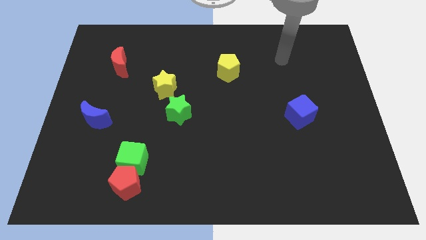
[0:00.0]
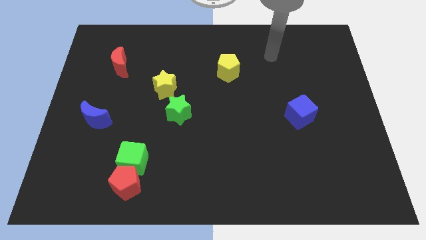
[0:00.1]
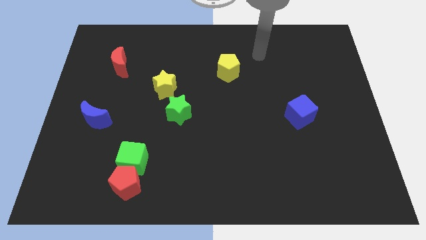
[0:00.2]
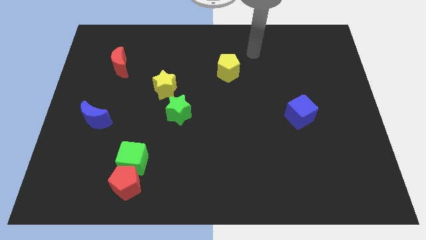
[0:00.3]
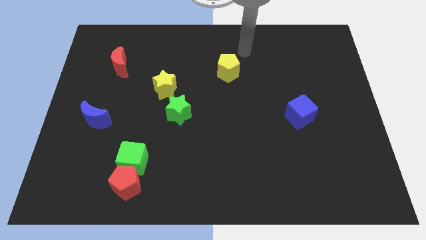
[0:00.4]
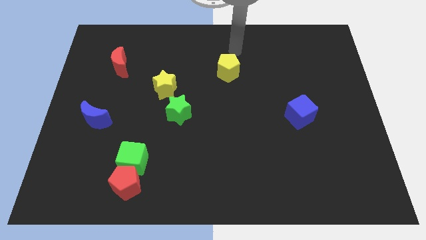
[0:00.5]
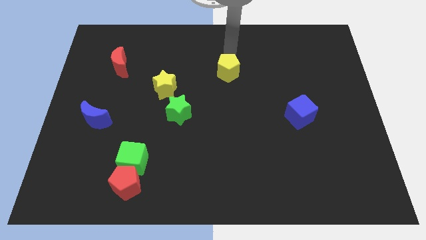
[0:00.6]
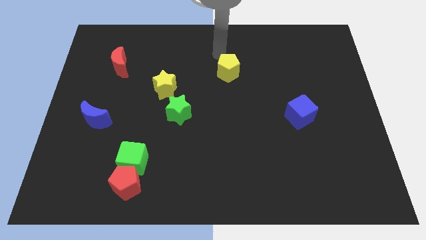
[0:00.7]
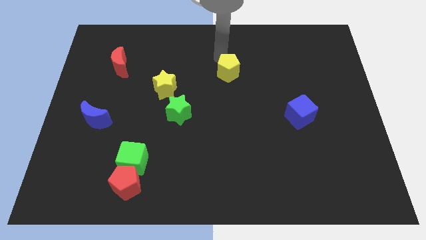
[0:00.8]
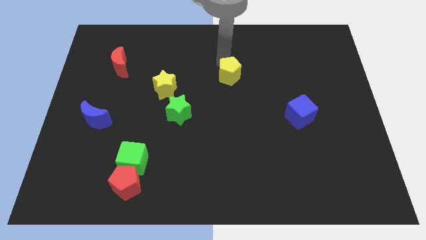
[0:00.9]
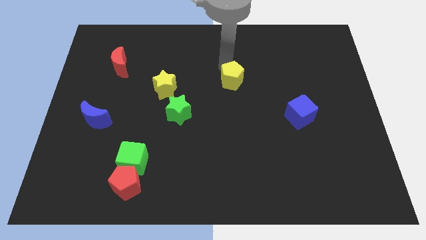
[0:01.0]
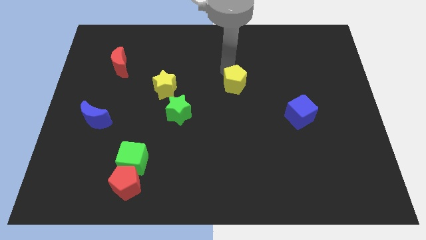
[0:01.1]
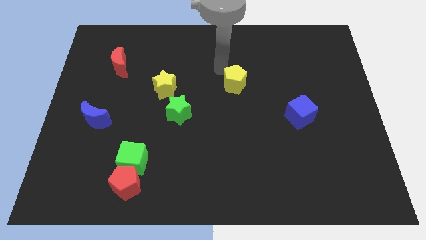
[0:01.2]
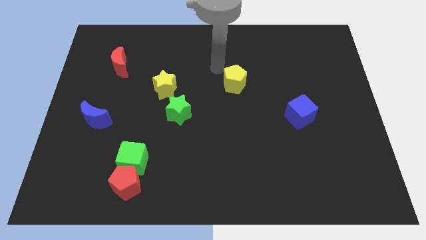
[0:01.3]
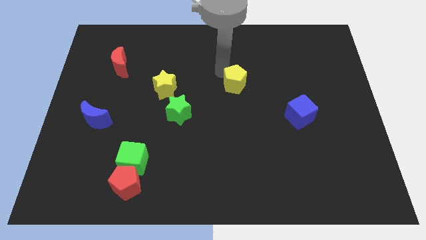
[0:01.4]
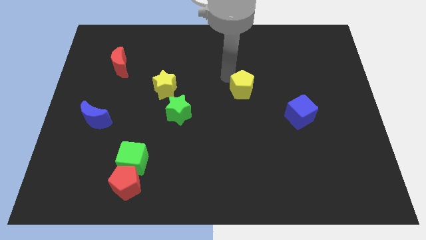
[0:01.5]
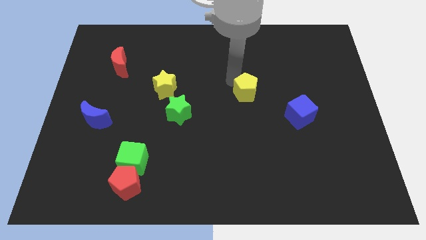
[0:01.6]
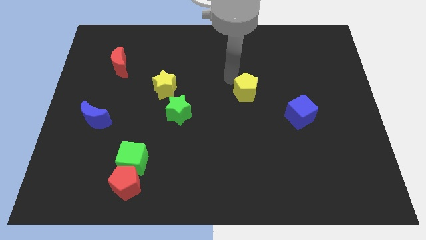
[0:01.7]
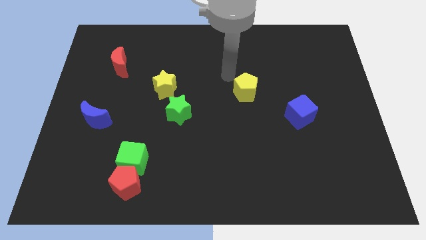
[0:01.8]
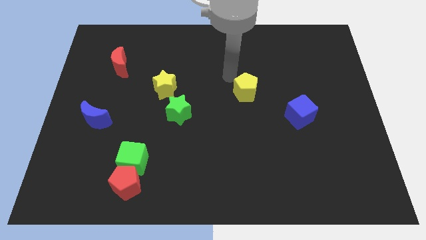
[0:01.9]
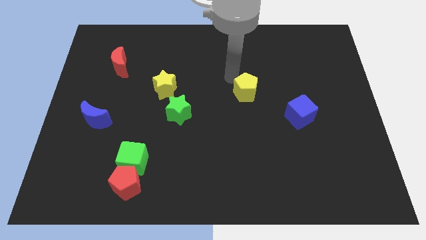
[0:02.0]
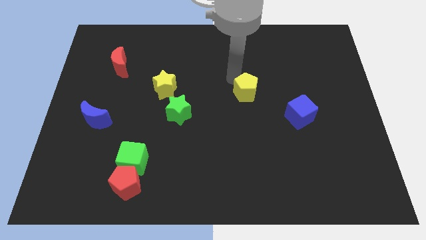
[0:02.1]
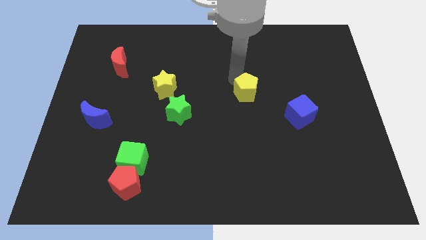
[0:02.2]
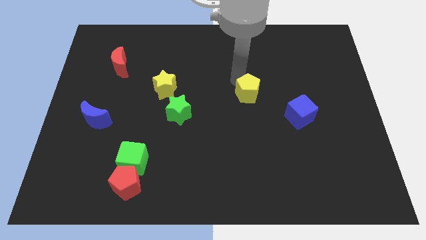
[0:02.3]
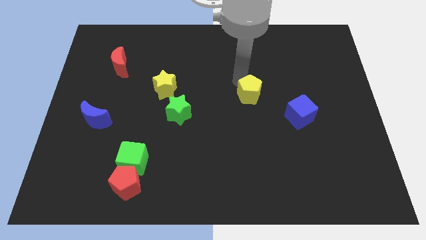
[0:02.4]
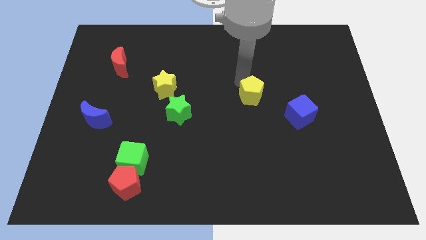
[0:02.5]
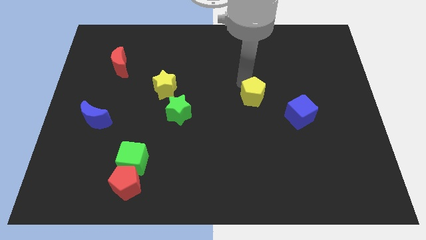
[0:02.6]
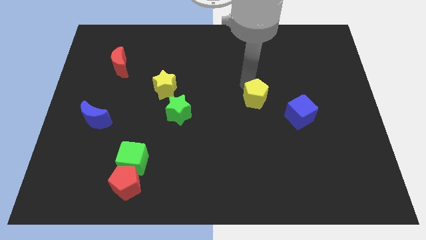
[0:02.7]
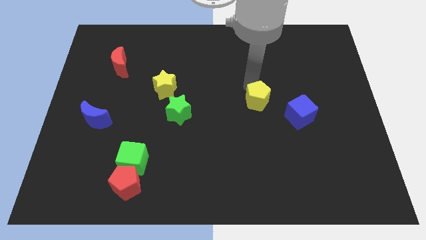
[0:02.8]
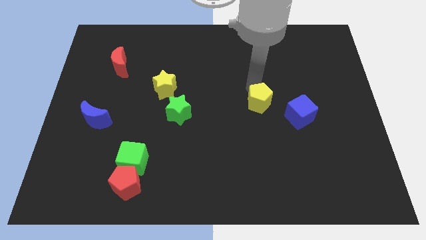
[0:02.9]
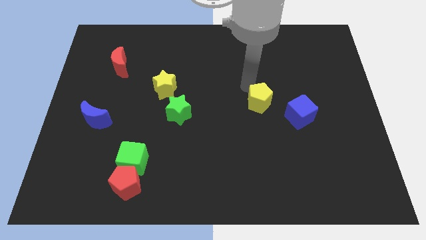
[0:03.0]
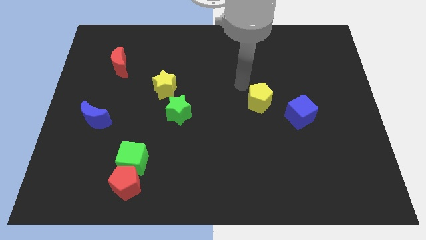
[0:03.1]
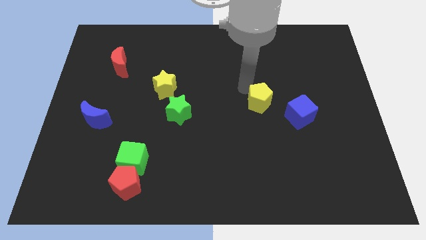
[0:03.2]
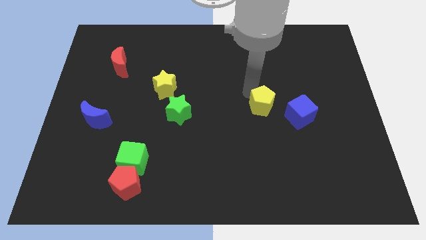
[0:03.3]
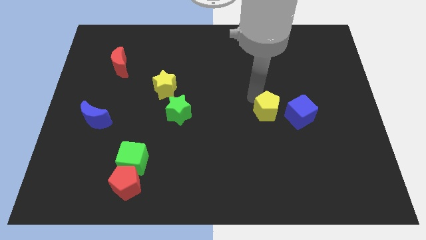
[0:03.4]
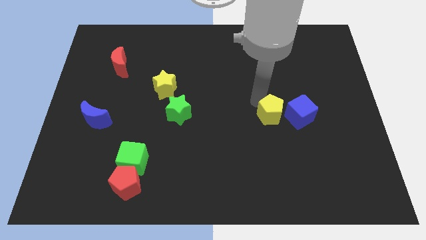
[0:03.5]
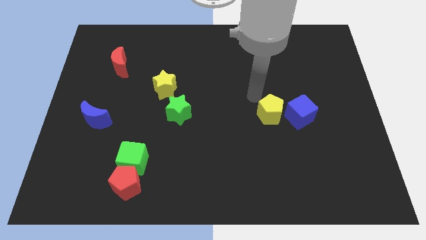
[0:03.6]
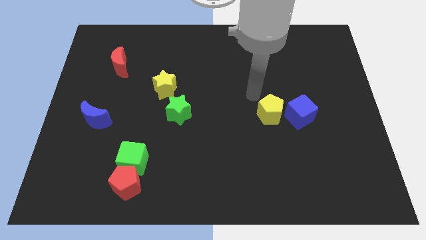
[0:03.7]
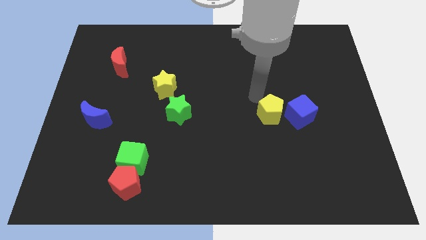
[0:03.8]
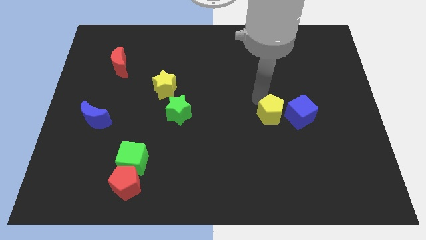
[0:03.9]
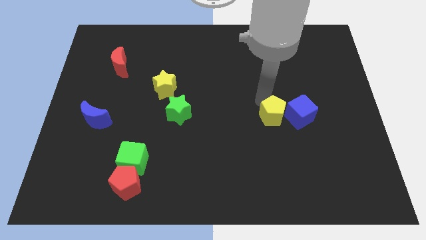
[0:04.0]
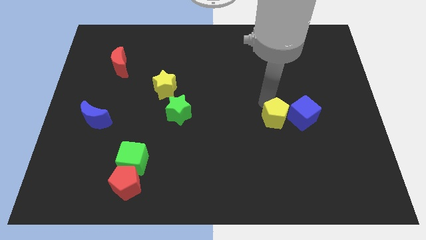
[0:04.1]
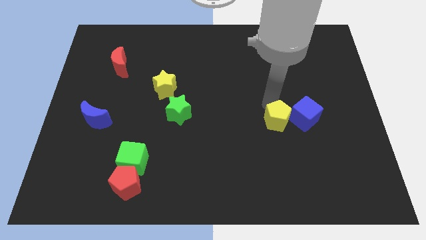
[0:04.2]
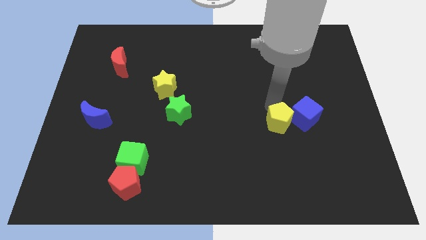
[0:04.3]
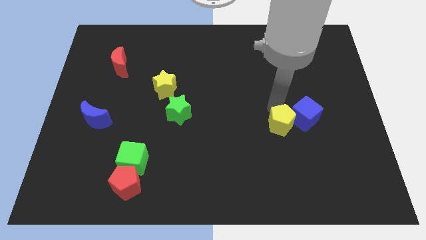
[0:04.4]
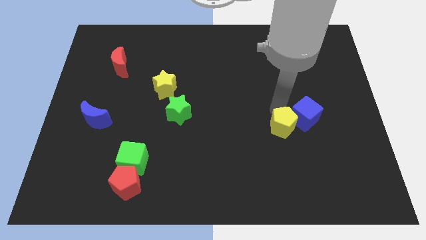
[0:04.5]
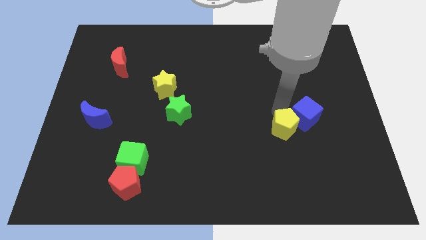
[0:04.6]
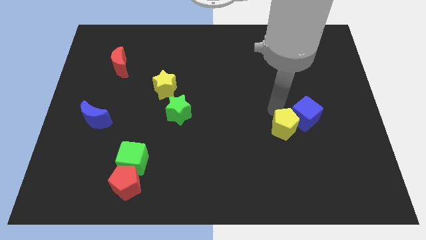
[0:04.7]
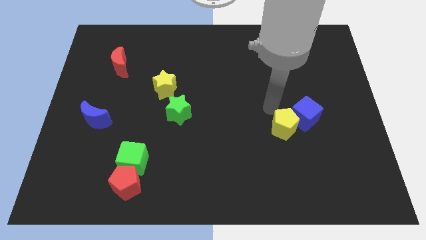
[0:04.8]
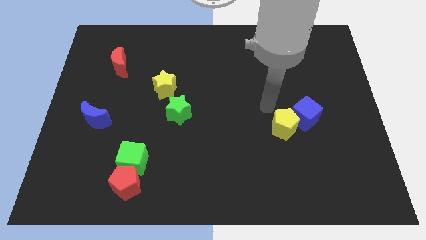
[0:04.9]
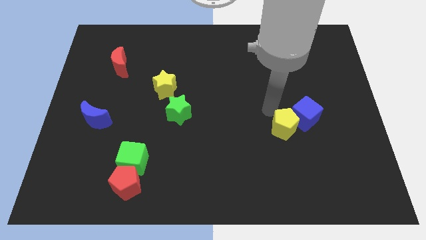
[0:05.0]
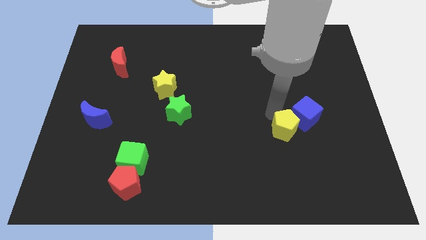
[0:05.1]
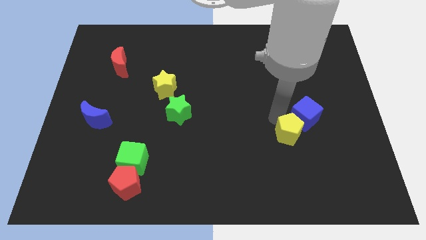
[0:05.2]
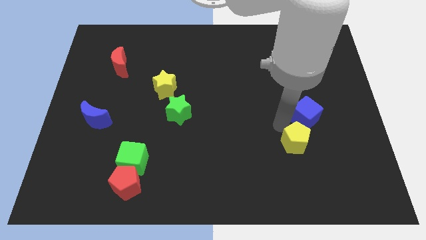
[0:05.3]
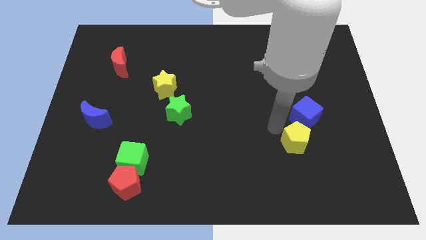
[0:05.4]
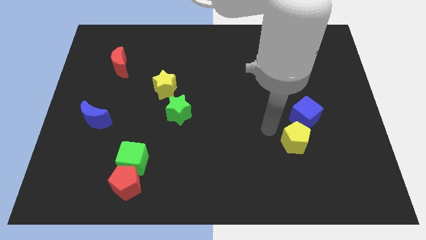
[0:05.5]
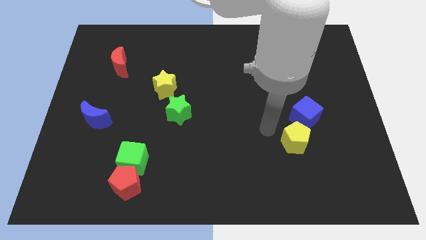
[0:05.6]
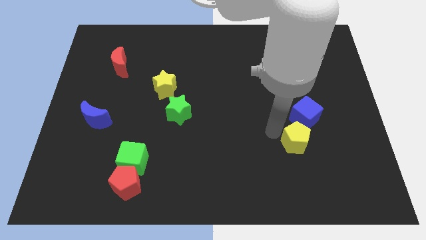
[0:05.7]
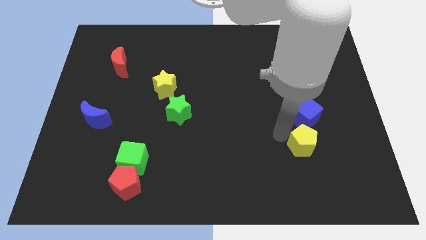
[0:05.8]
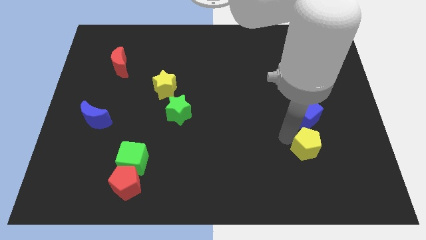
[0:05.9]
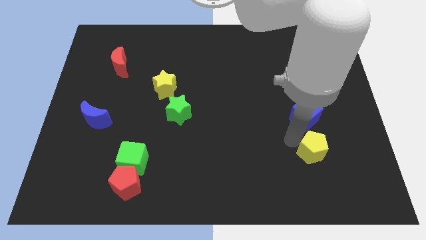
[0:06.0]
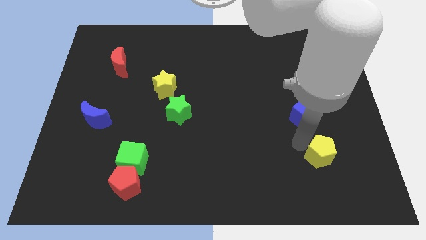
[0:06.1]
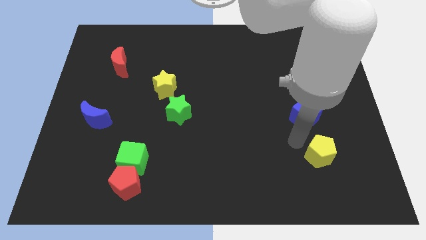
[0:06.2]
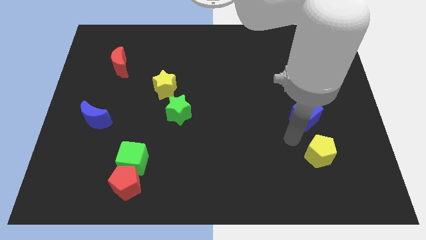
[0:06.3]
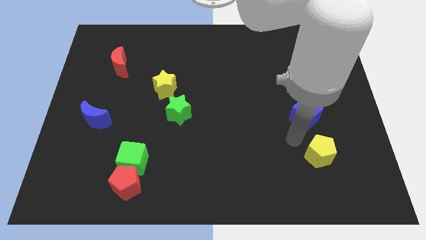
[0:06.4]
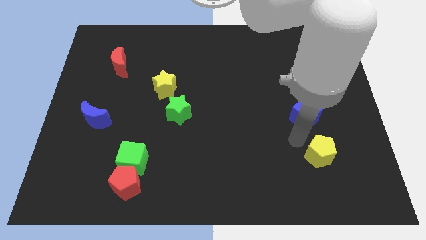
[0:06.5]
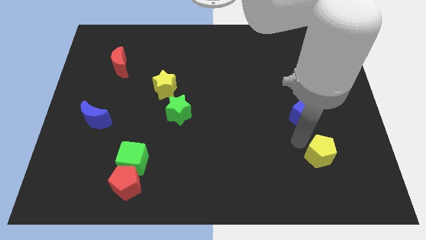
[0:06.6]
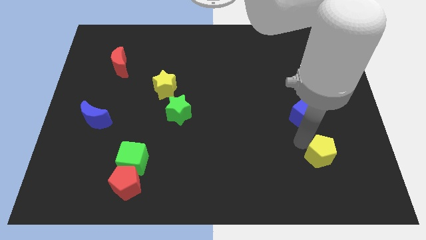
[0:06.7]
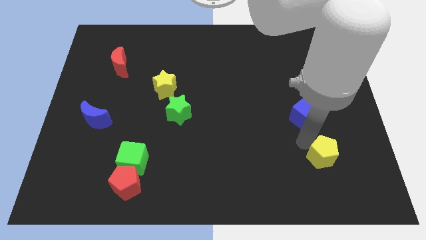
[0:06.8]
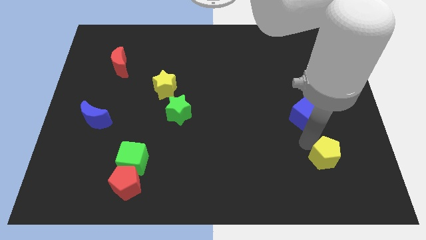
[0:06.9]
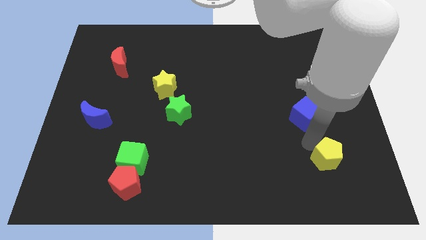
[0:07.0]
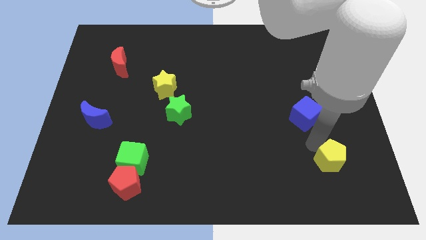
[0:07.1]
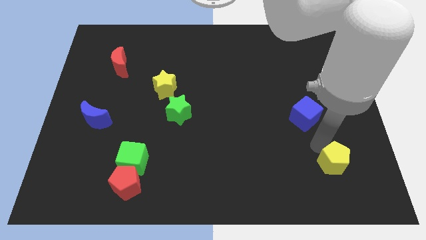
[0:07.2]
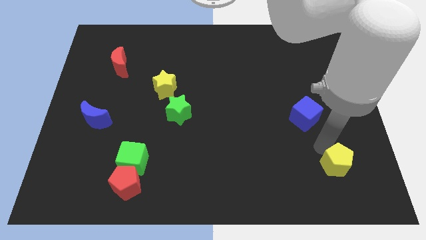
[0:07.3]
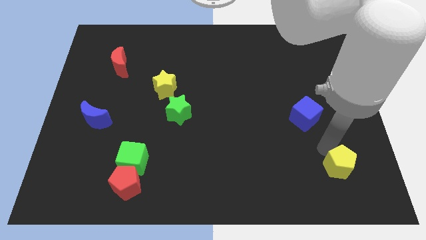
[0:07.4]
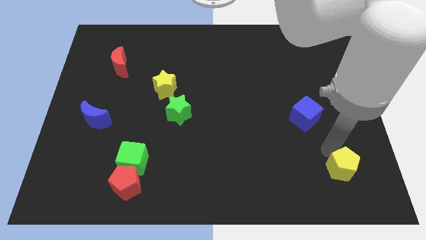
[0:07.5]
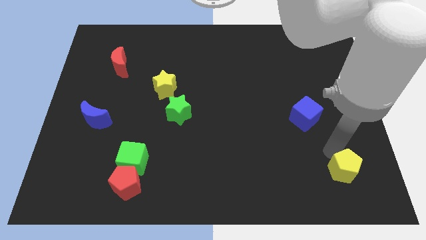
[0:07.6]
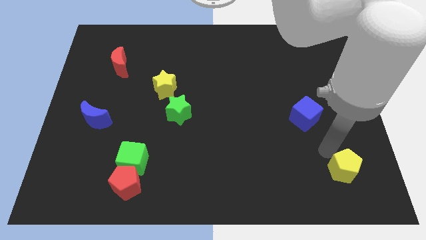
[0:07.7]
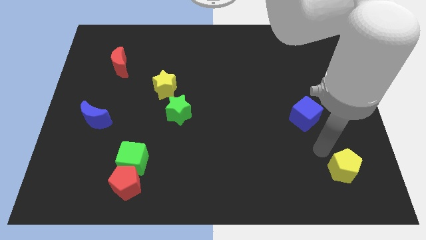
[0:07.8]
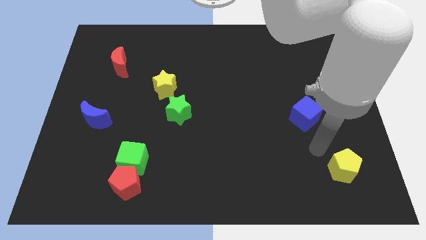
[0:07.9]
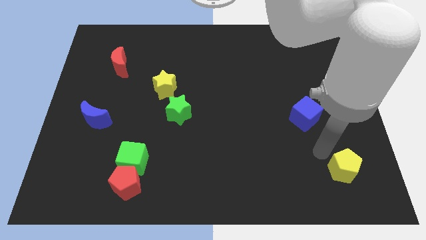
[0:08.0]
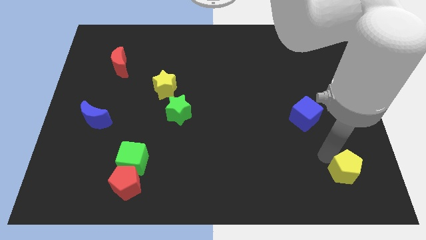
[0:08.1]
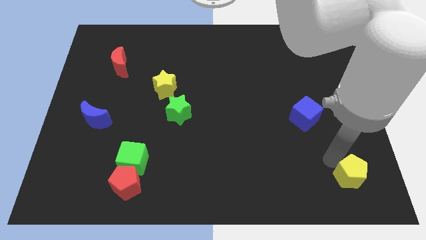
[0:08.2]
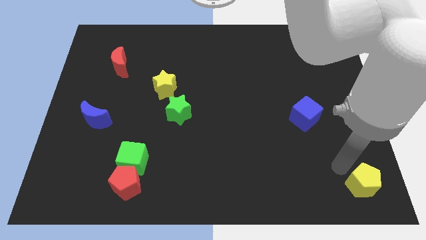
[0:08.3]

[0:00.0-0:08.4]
put the yellow pentagon to the lower right corner
